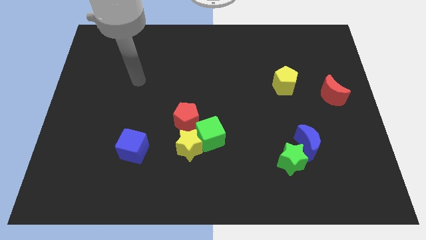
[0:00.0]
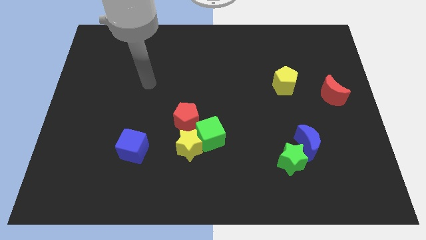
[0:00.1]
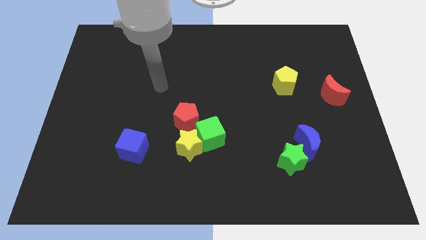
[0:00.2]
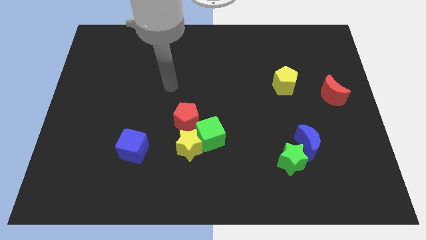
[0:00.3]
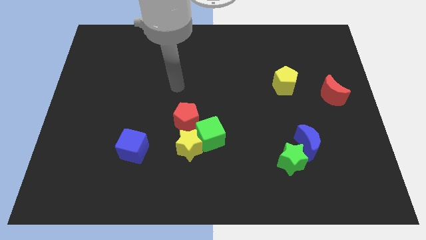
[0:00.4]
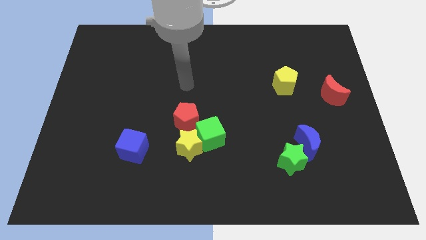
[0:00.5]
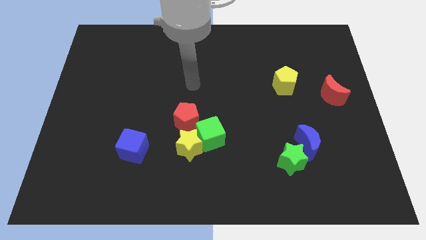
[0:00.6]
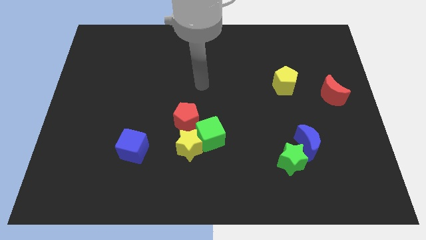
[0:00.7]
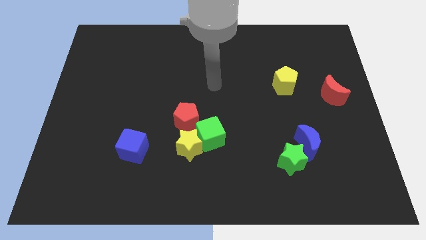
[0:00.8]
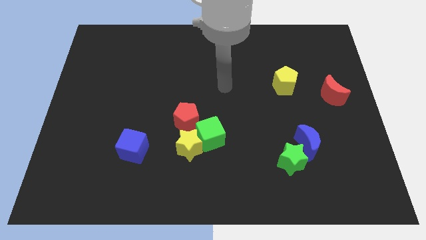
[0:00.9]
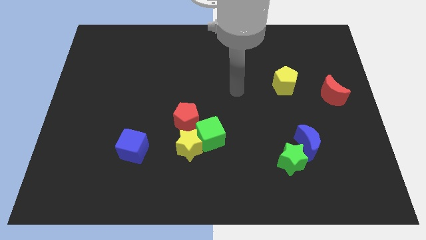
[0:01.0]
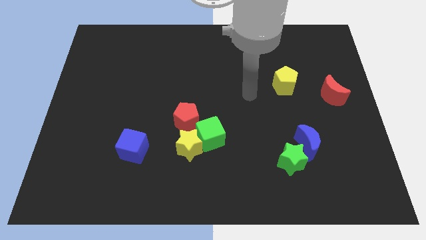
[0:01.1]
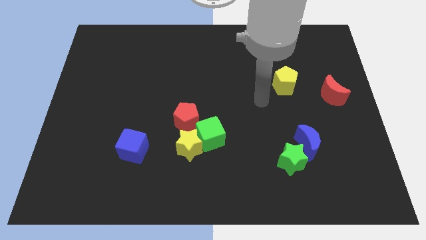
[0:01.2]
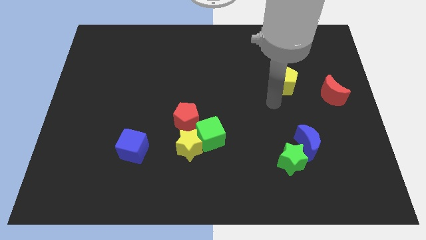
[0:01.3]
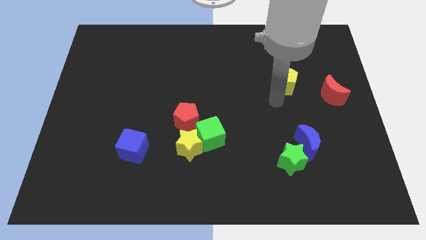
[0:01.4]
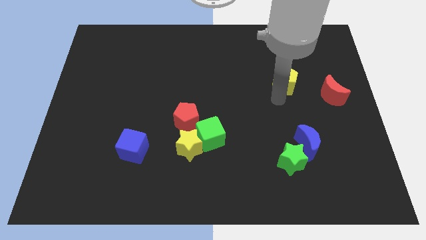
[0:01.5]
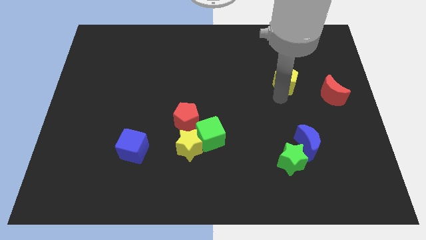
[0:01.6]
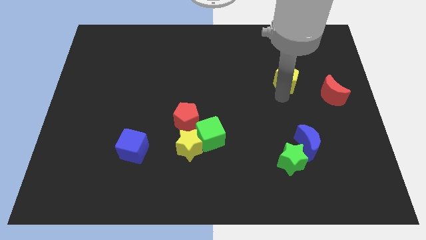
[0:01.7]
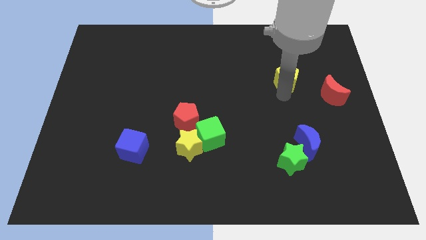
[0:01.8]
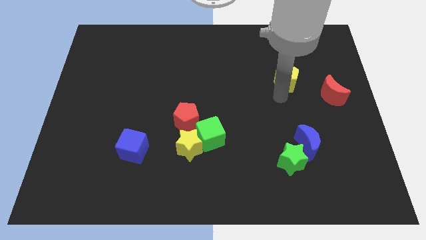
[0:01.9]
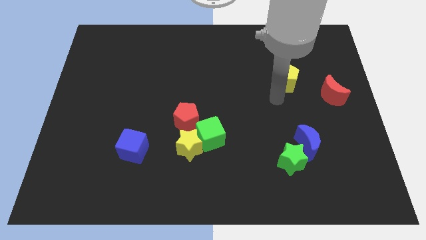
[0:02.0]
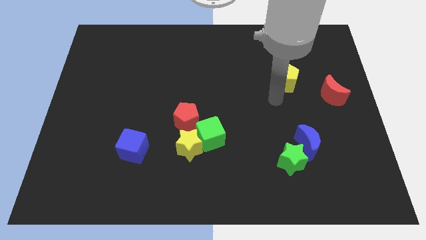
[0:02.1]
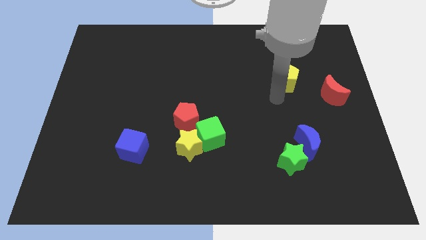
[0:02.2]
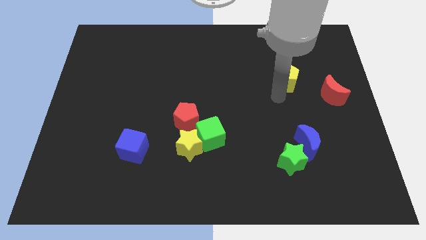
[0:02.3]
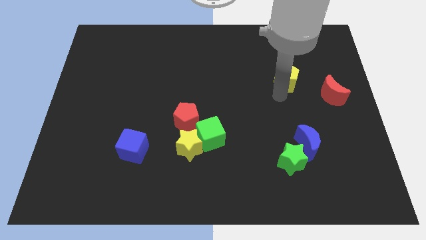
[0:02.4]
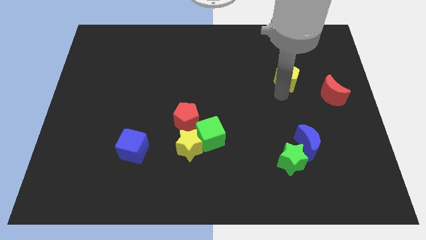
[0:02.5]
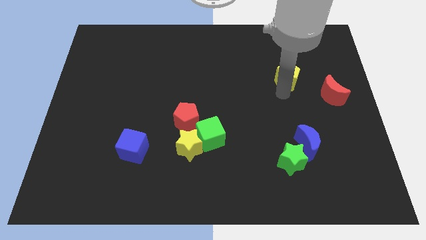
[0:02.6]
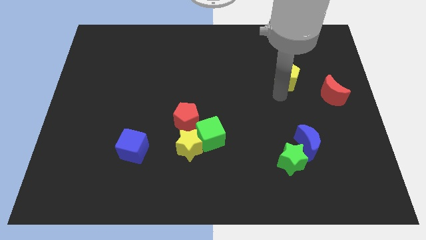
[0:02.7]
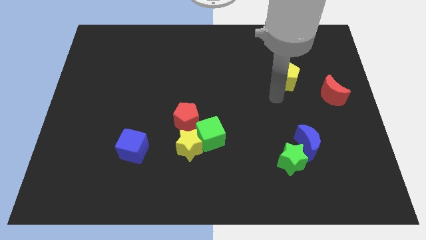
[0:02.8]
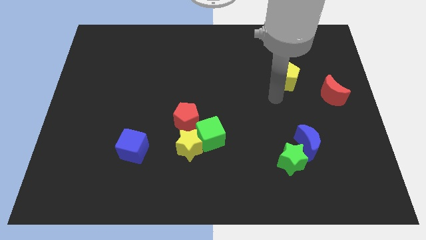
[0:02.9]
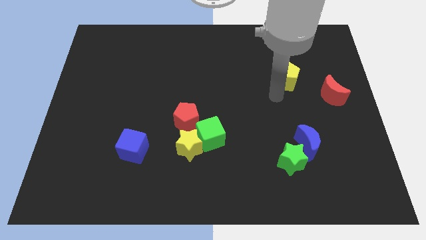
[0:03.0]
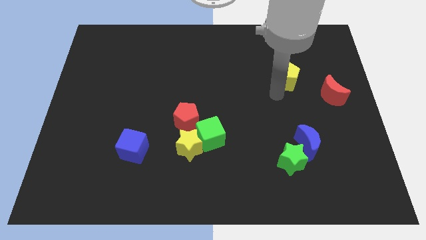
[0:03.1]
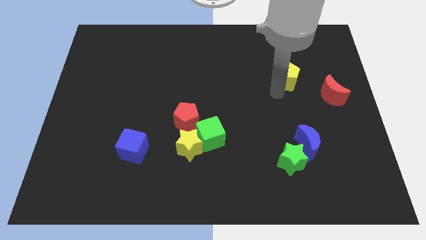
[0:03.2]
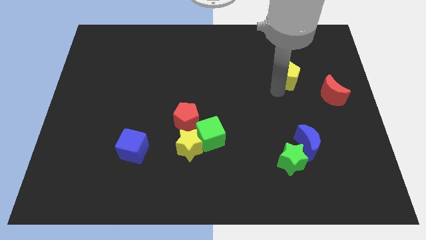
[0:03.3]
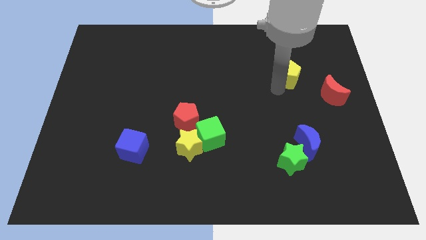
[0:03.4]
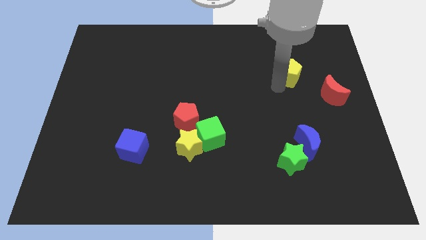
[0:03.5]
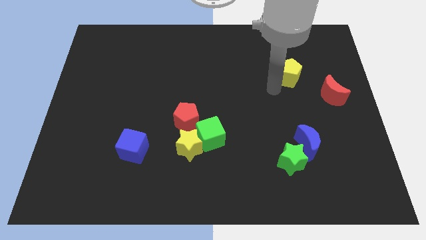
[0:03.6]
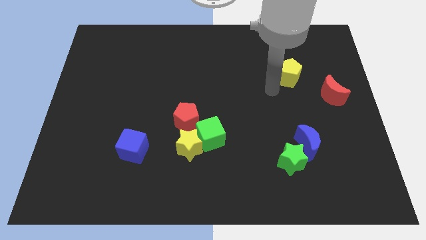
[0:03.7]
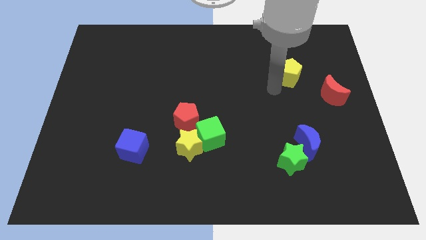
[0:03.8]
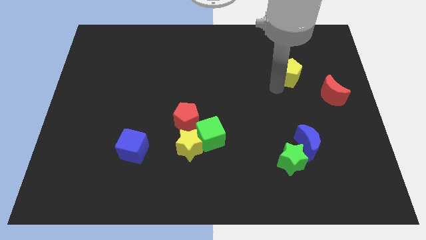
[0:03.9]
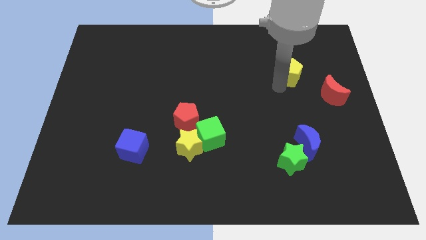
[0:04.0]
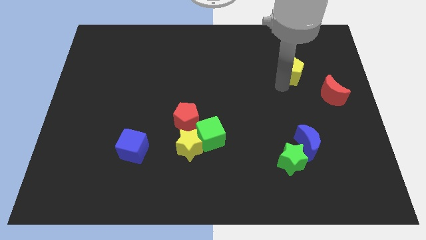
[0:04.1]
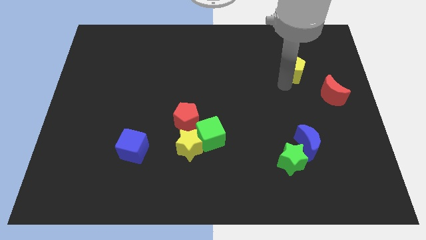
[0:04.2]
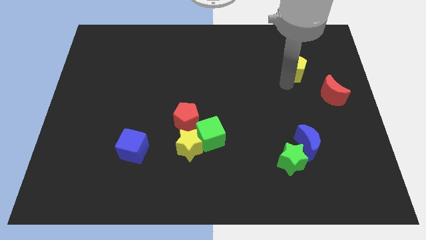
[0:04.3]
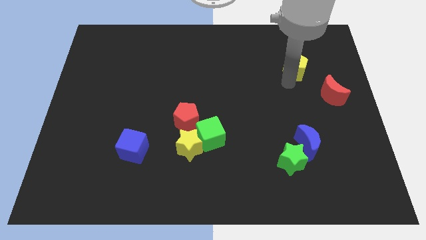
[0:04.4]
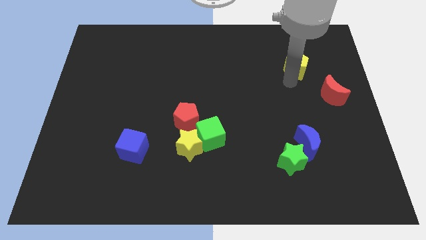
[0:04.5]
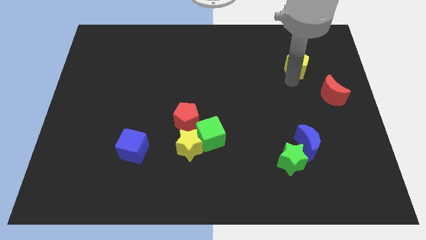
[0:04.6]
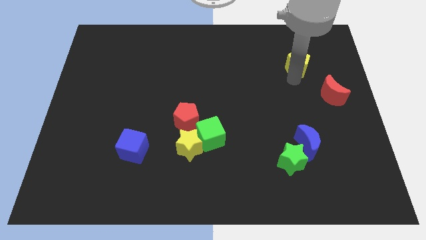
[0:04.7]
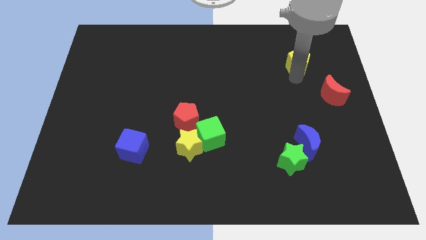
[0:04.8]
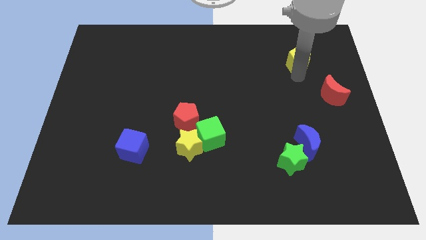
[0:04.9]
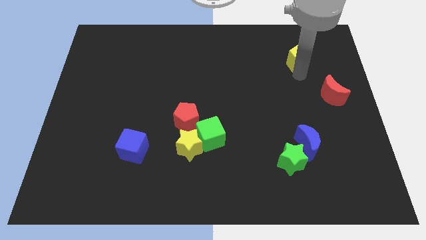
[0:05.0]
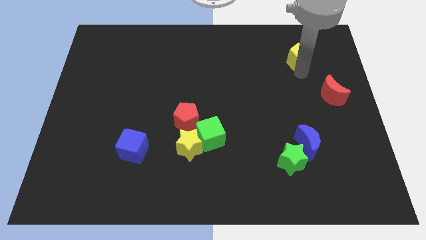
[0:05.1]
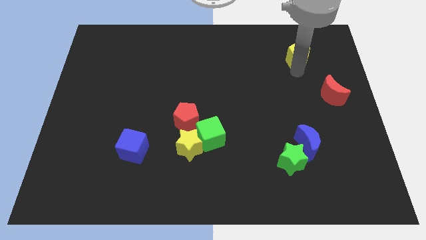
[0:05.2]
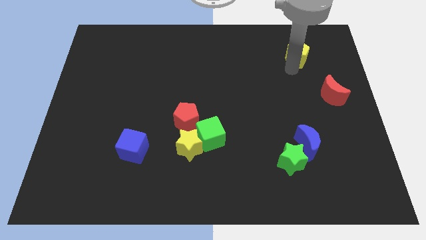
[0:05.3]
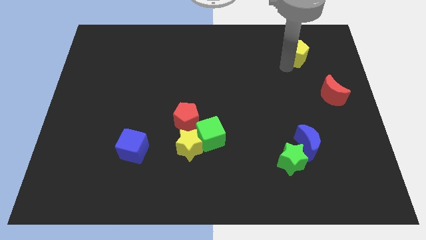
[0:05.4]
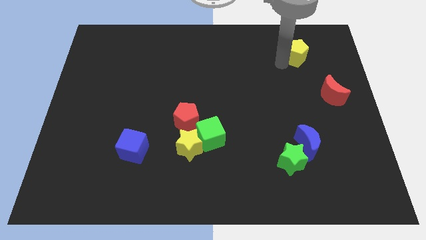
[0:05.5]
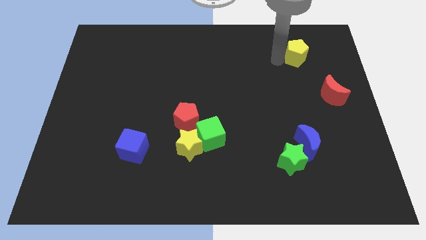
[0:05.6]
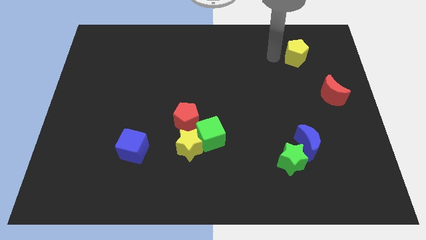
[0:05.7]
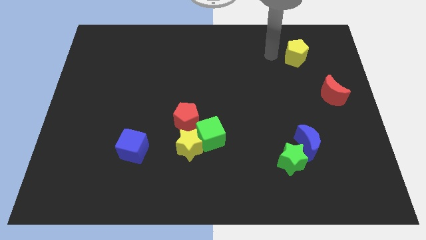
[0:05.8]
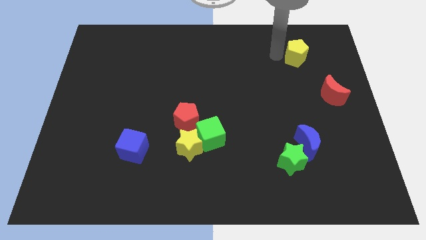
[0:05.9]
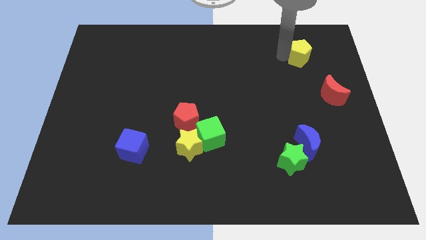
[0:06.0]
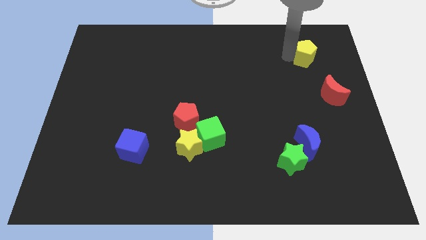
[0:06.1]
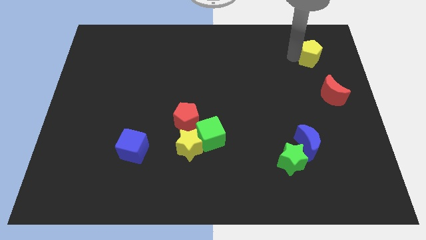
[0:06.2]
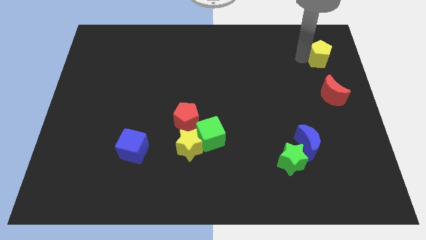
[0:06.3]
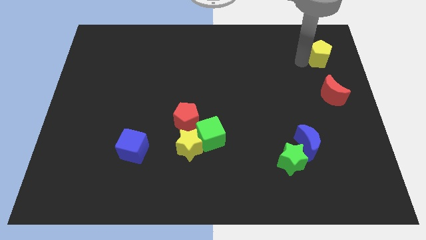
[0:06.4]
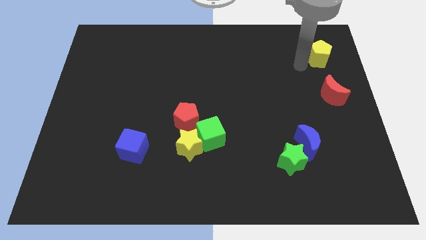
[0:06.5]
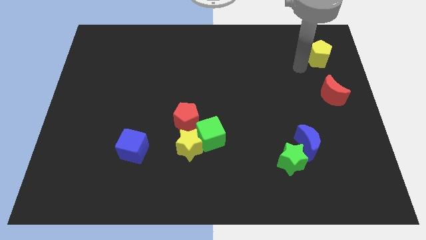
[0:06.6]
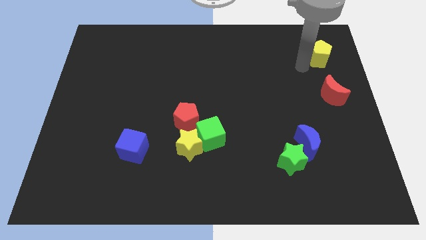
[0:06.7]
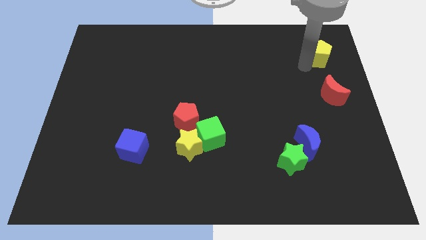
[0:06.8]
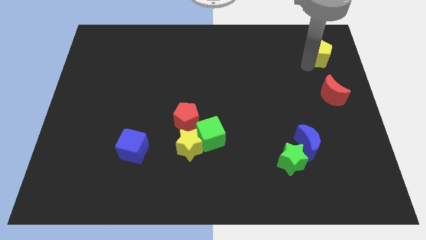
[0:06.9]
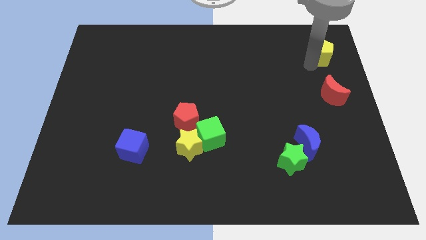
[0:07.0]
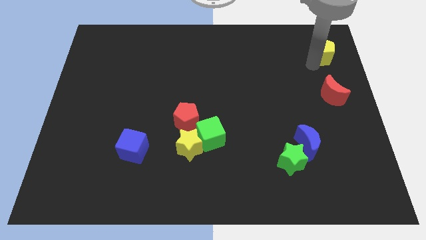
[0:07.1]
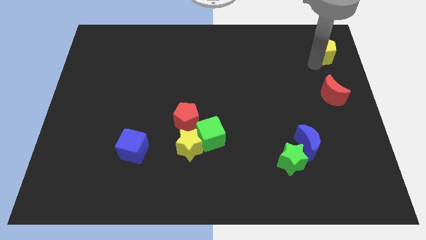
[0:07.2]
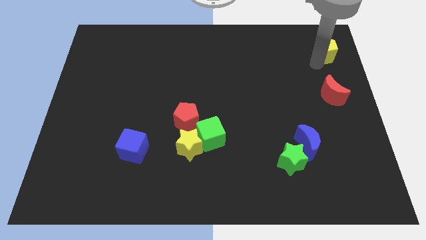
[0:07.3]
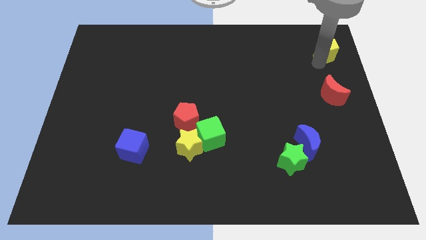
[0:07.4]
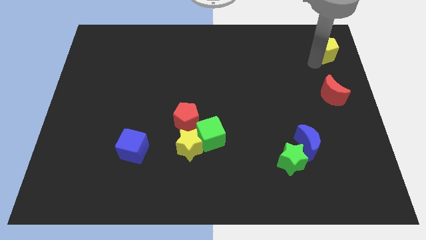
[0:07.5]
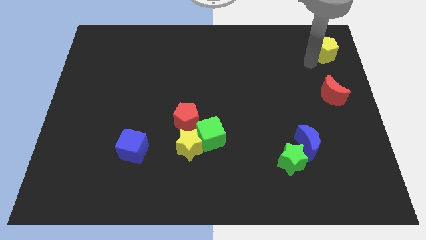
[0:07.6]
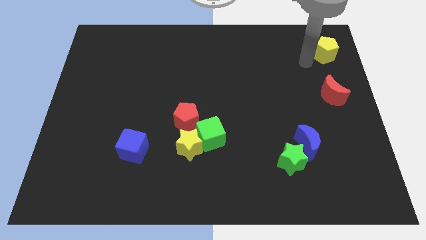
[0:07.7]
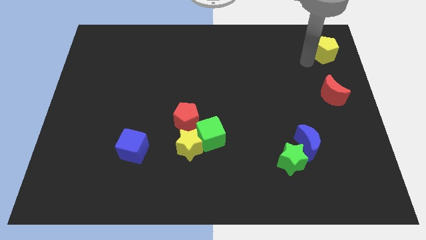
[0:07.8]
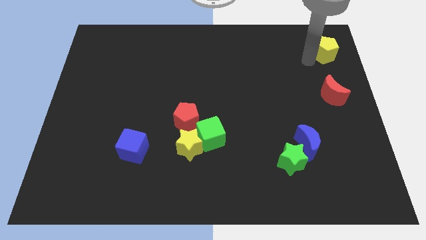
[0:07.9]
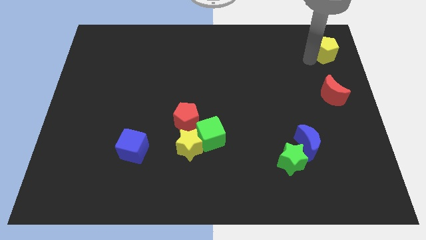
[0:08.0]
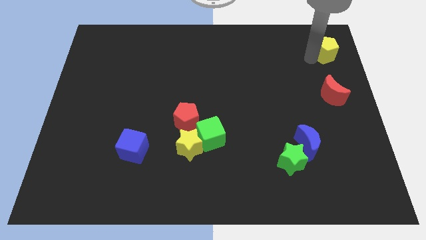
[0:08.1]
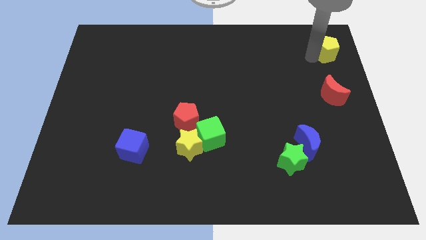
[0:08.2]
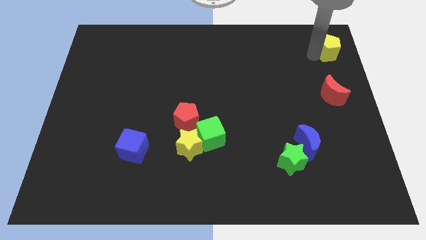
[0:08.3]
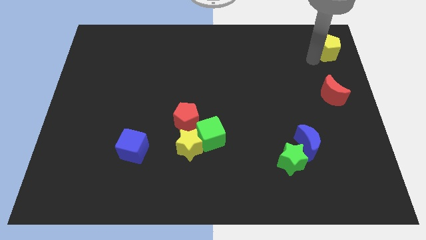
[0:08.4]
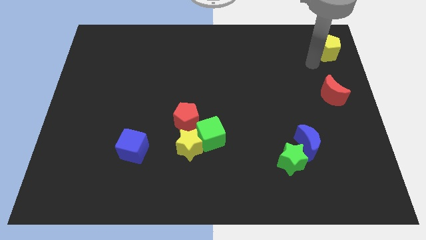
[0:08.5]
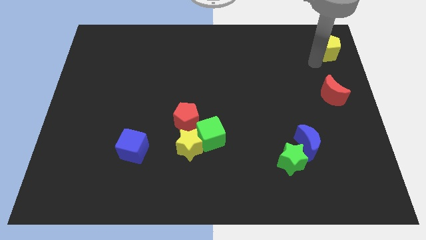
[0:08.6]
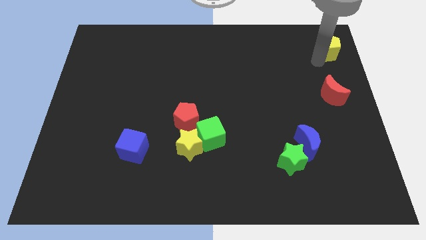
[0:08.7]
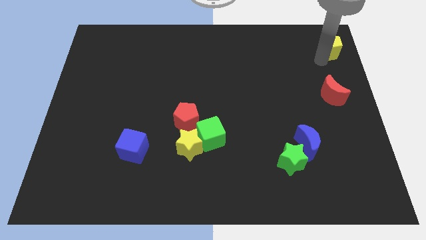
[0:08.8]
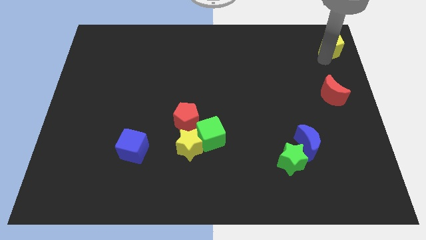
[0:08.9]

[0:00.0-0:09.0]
put the yellow pentagon to the top right
